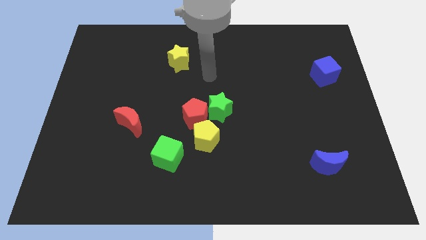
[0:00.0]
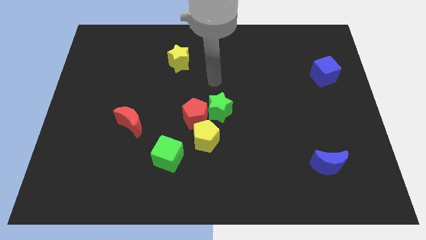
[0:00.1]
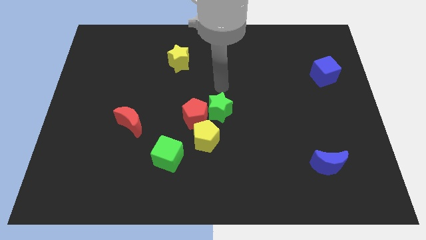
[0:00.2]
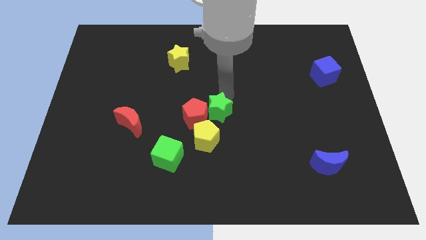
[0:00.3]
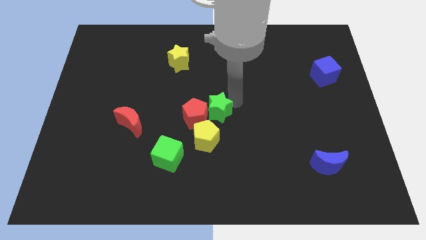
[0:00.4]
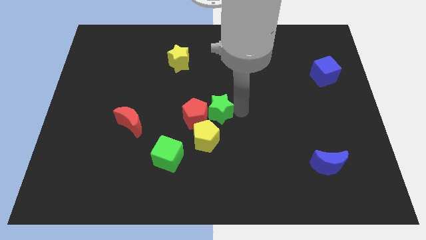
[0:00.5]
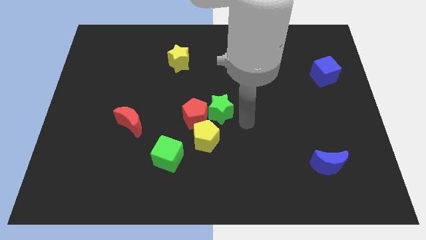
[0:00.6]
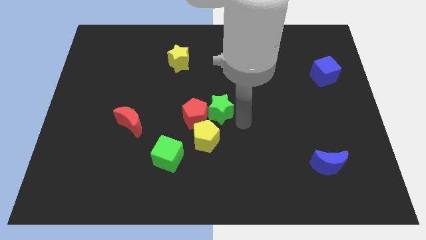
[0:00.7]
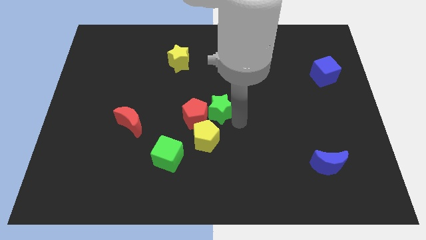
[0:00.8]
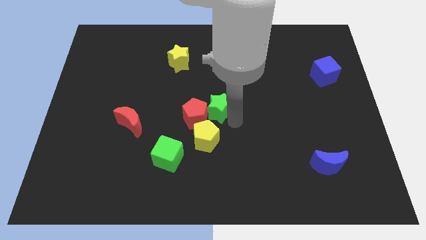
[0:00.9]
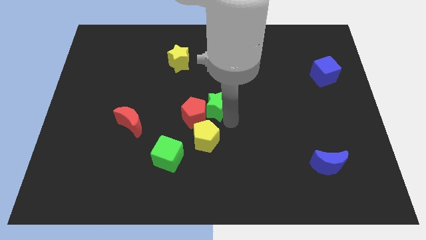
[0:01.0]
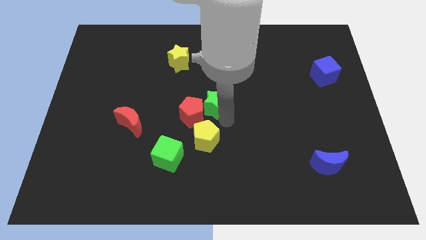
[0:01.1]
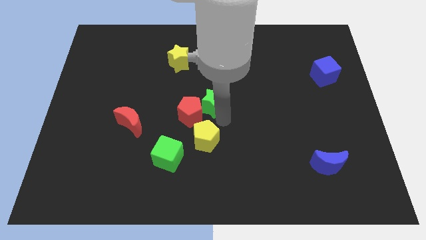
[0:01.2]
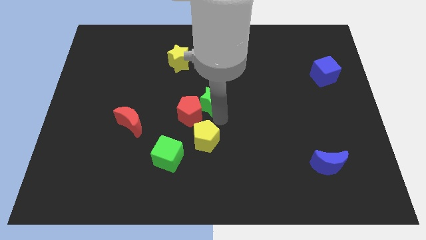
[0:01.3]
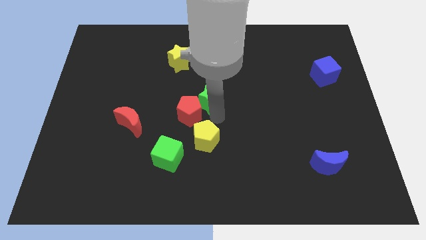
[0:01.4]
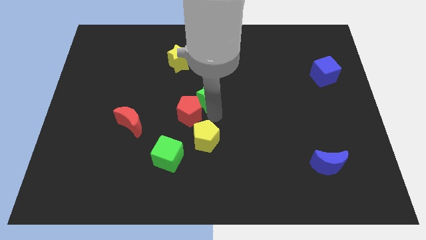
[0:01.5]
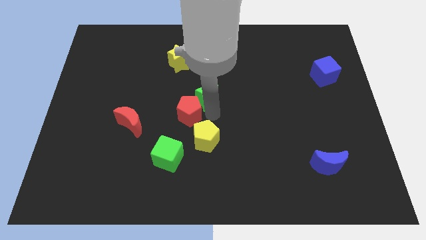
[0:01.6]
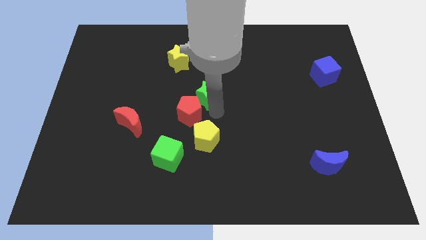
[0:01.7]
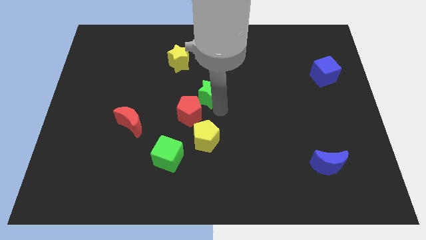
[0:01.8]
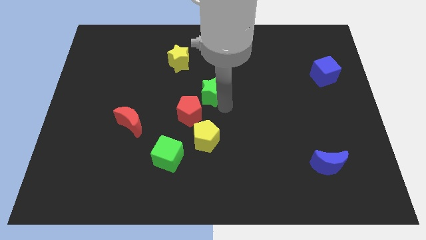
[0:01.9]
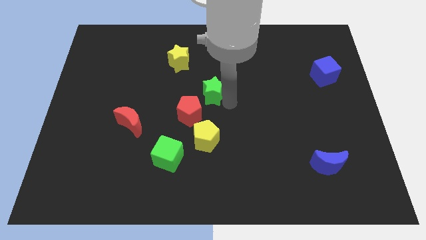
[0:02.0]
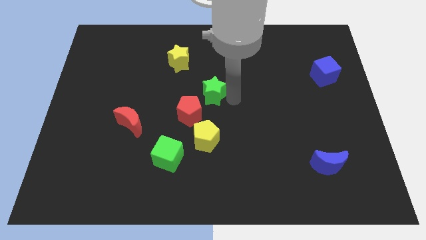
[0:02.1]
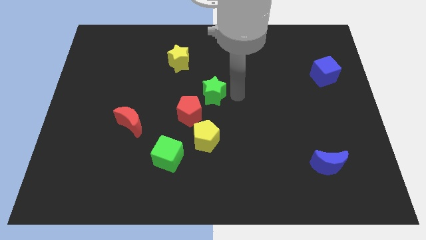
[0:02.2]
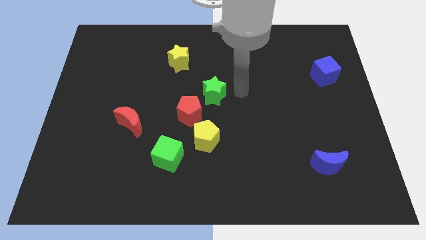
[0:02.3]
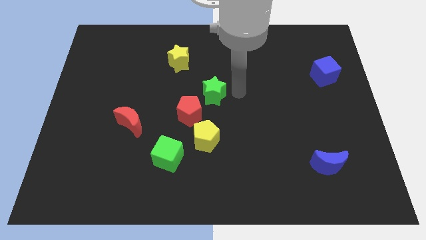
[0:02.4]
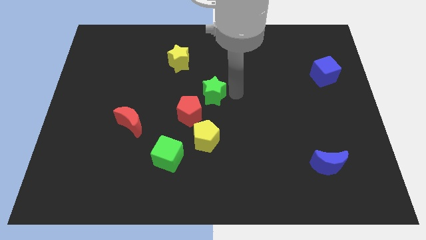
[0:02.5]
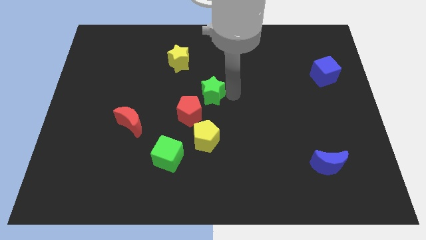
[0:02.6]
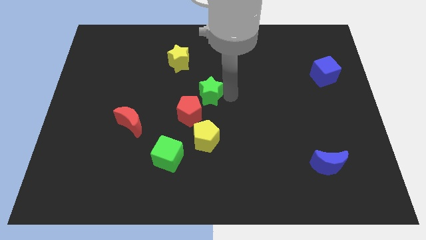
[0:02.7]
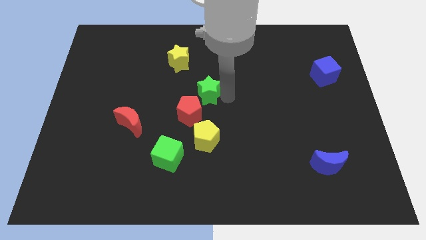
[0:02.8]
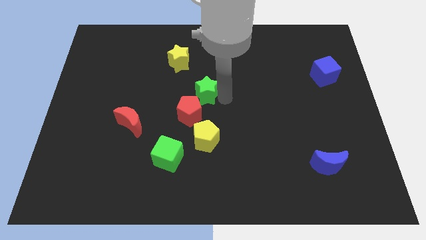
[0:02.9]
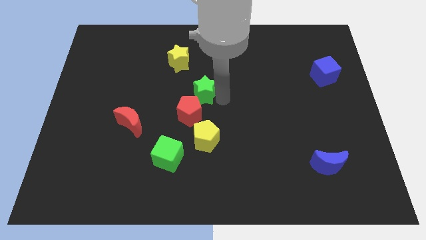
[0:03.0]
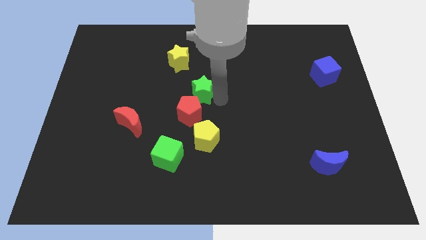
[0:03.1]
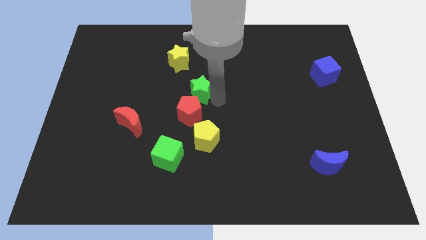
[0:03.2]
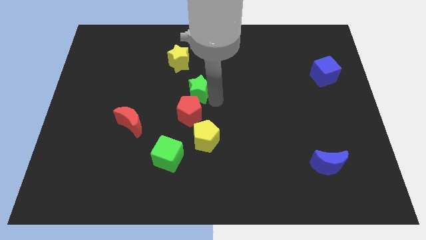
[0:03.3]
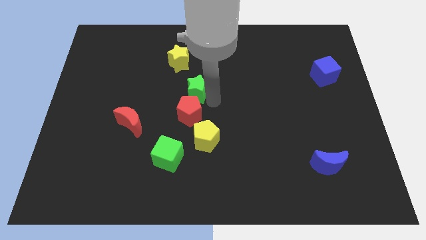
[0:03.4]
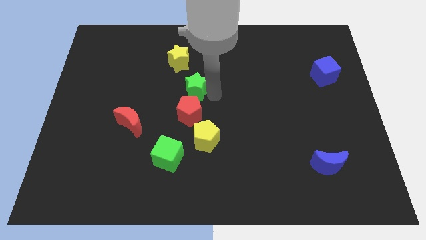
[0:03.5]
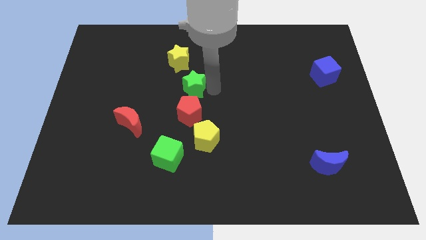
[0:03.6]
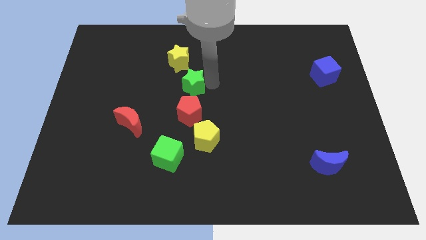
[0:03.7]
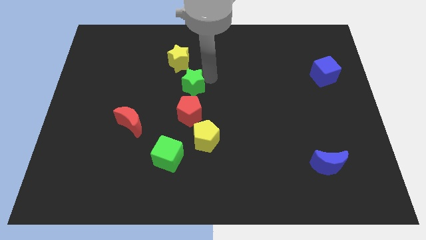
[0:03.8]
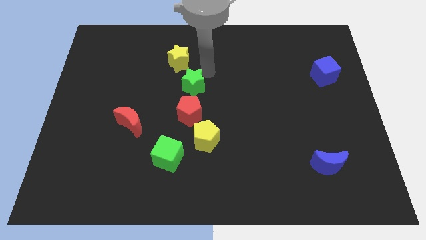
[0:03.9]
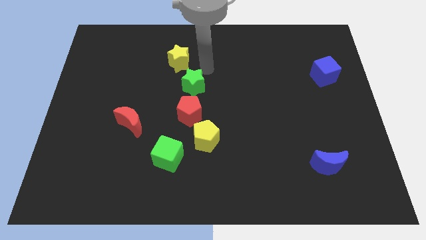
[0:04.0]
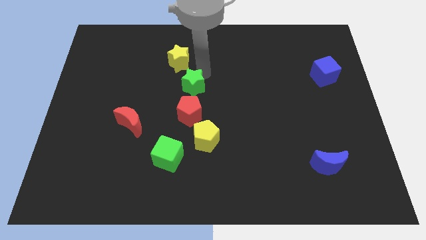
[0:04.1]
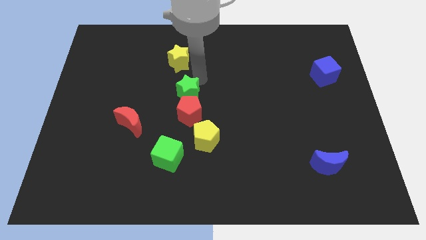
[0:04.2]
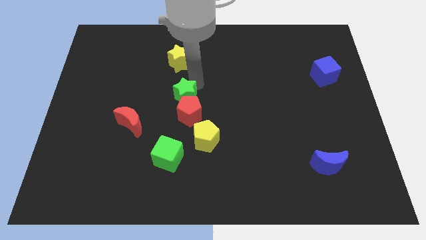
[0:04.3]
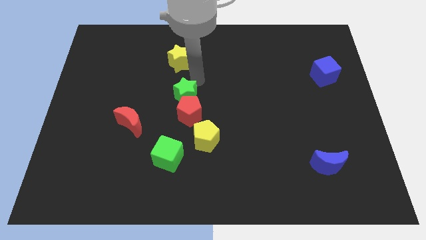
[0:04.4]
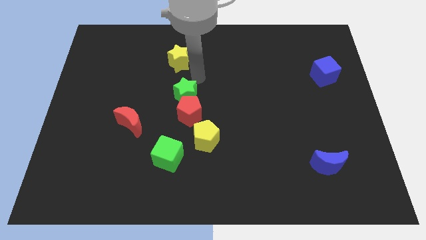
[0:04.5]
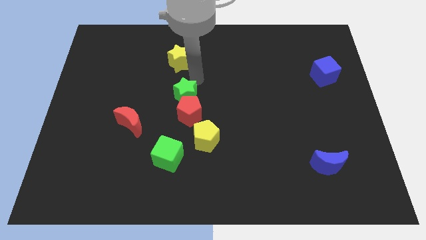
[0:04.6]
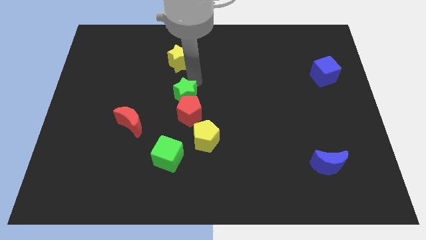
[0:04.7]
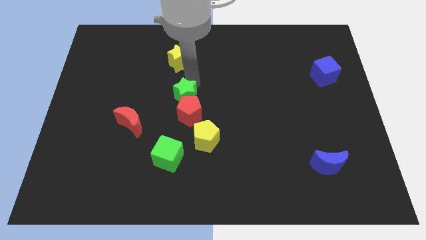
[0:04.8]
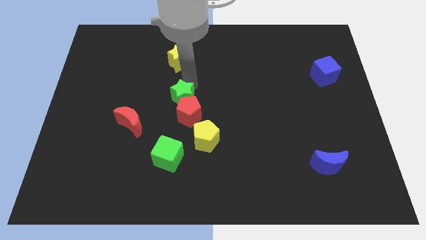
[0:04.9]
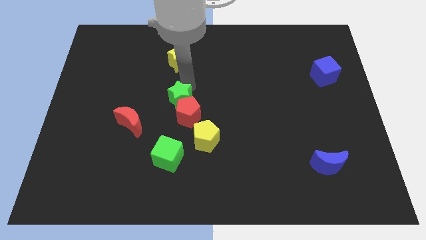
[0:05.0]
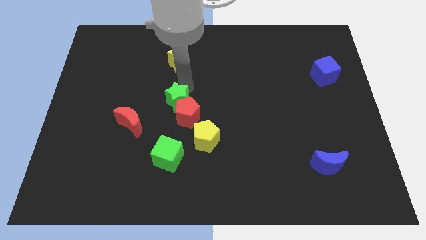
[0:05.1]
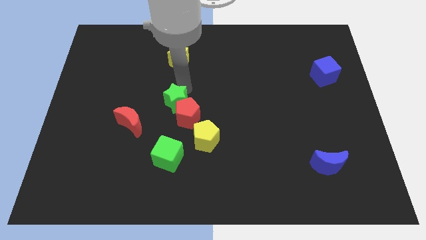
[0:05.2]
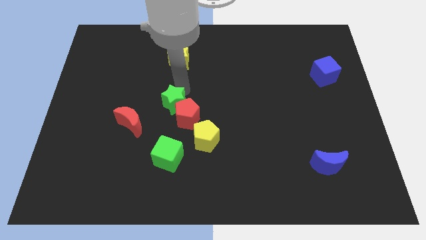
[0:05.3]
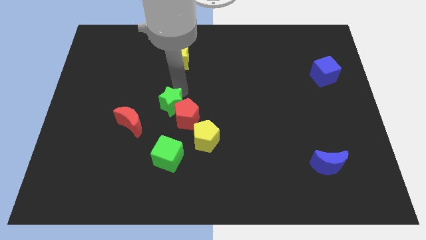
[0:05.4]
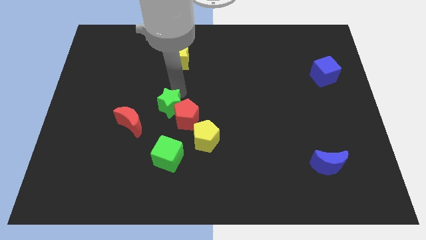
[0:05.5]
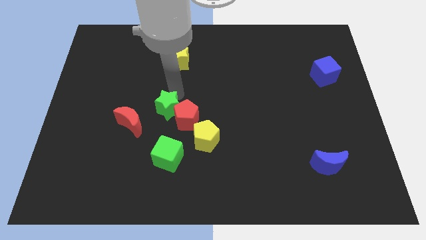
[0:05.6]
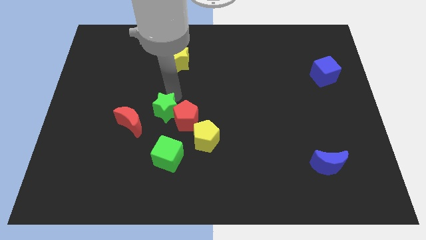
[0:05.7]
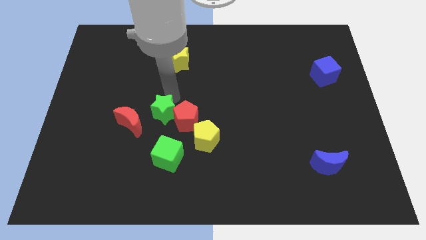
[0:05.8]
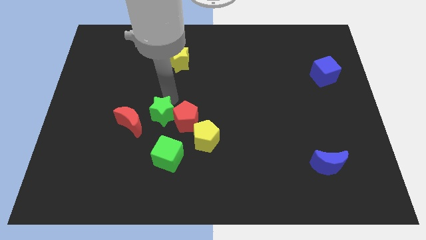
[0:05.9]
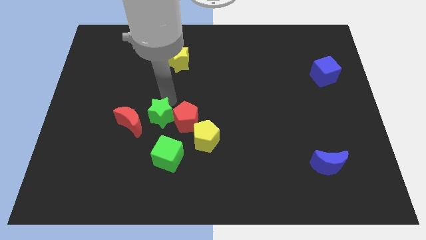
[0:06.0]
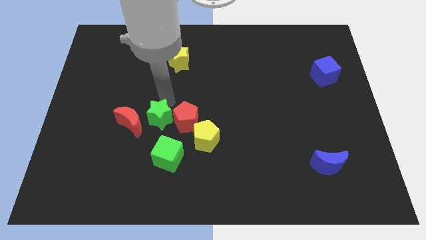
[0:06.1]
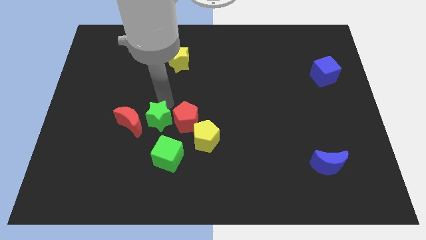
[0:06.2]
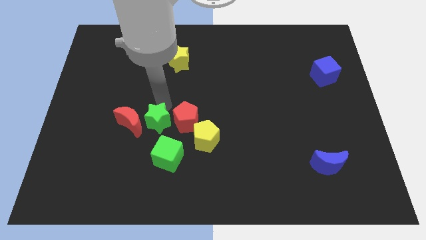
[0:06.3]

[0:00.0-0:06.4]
put the green star just left of the yellow pentagon
